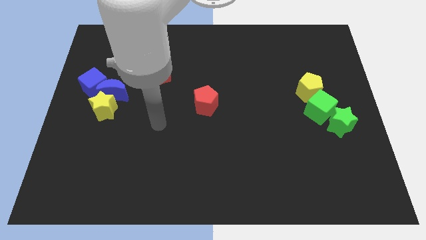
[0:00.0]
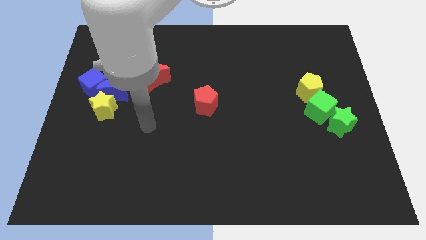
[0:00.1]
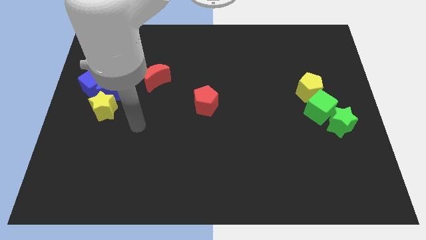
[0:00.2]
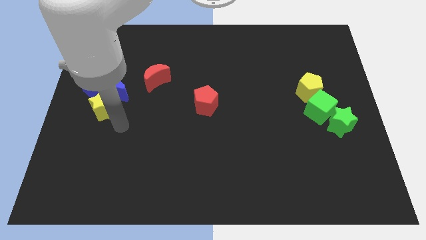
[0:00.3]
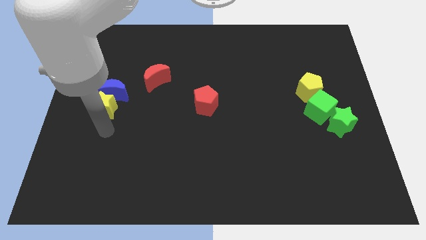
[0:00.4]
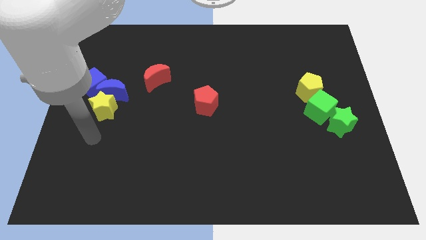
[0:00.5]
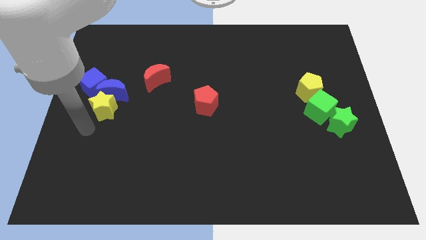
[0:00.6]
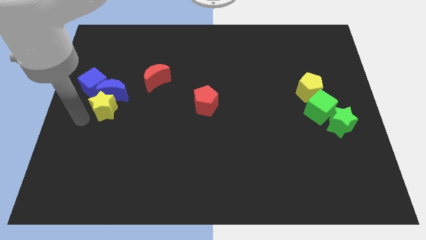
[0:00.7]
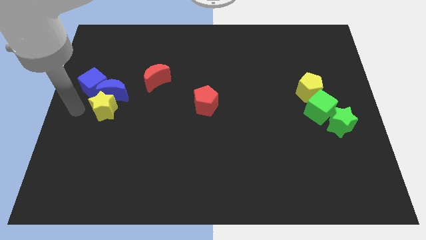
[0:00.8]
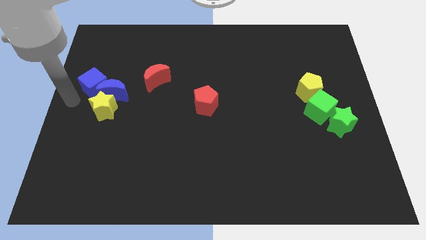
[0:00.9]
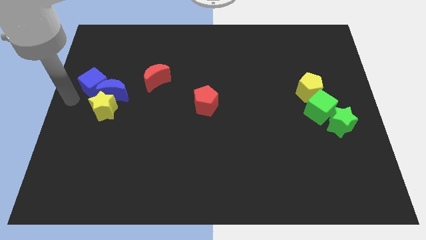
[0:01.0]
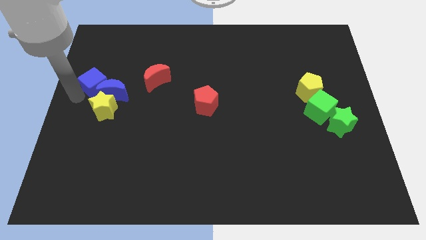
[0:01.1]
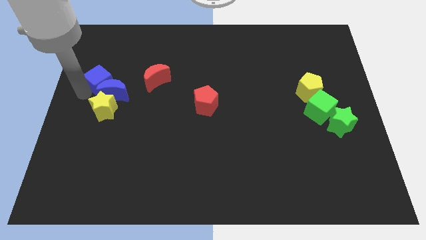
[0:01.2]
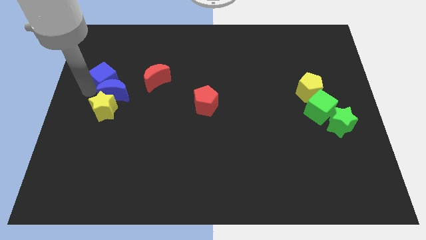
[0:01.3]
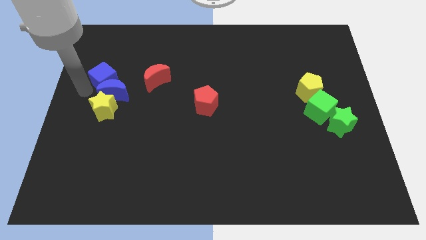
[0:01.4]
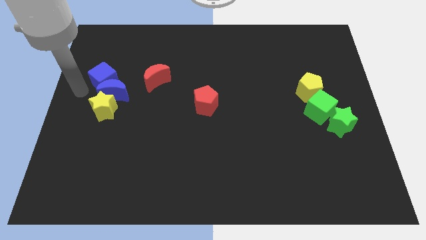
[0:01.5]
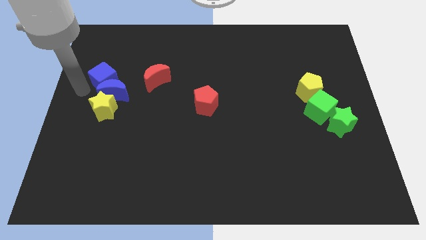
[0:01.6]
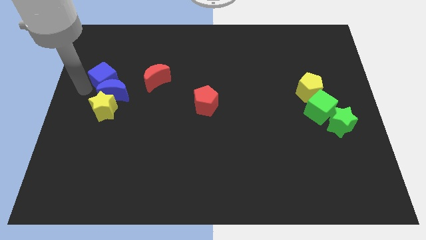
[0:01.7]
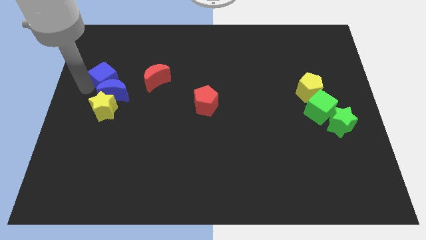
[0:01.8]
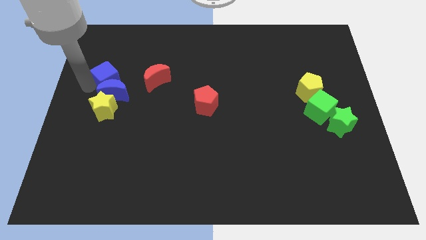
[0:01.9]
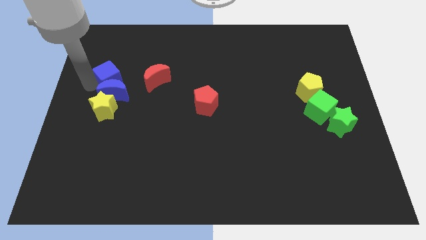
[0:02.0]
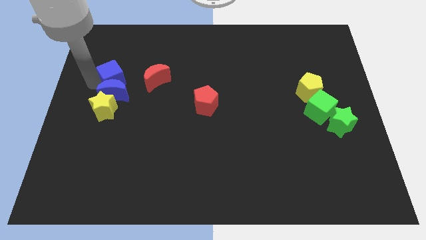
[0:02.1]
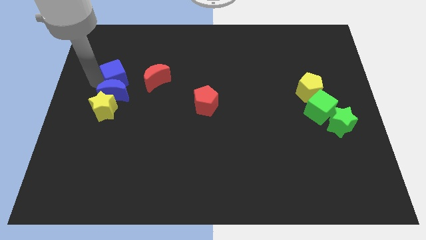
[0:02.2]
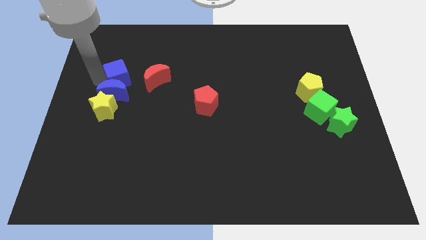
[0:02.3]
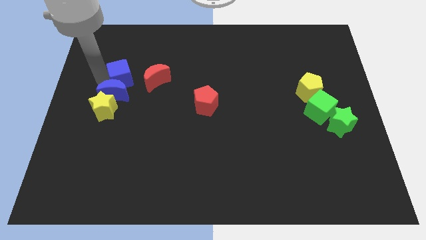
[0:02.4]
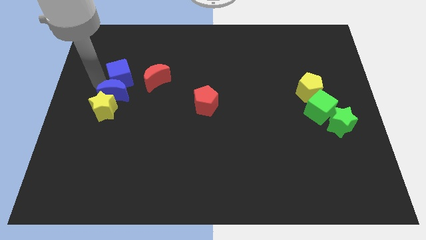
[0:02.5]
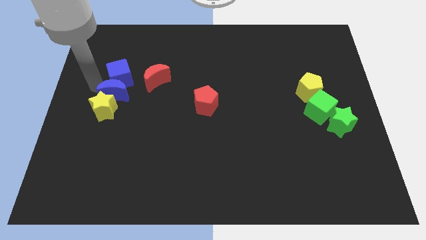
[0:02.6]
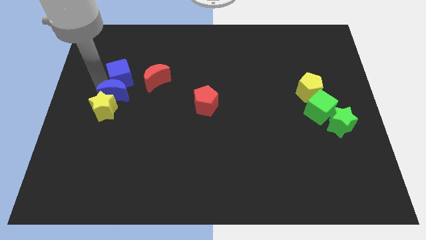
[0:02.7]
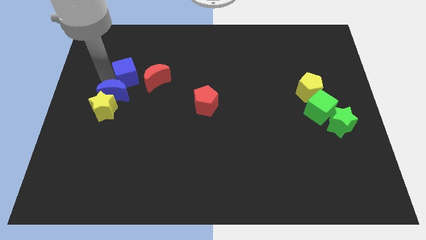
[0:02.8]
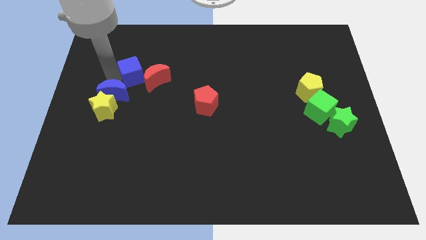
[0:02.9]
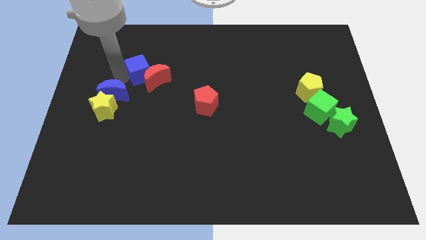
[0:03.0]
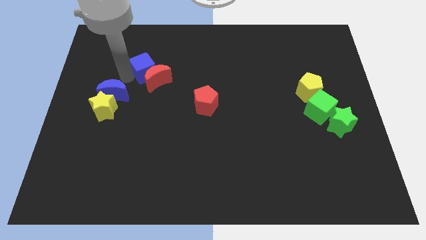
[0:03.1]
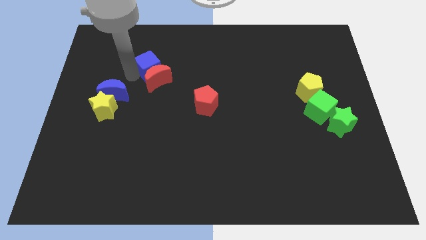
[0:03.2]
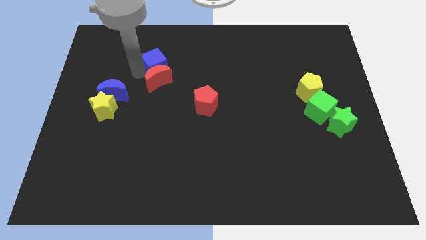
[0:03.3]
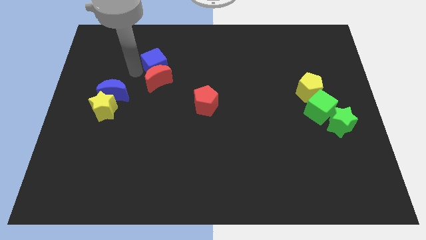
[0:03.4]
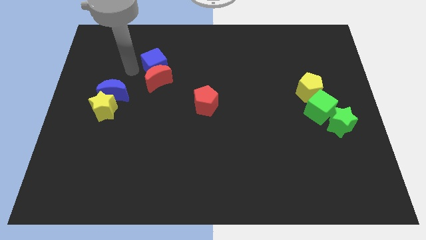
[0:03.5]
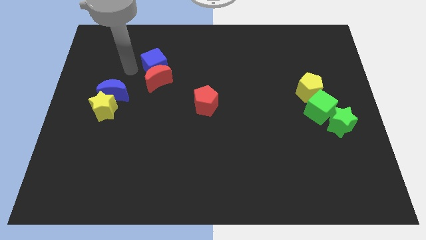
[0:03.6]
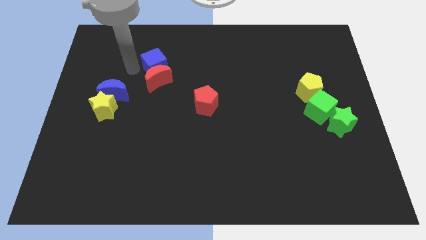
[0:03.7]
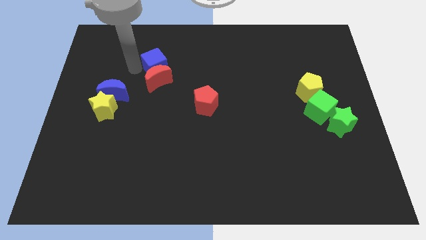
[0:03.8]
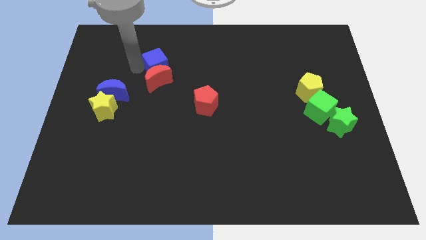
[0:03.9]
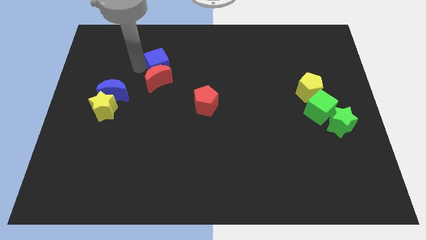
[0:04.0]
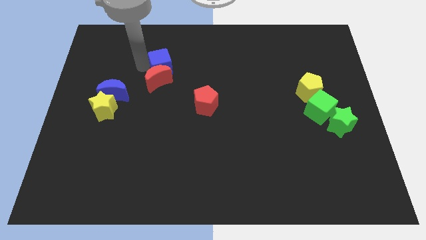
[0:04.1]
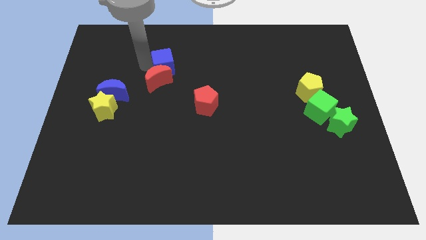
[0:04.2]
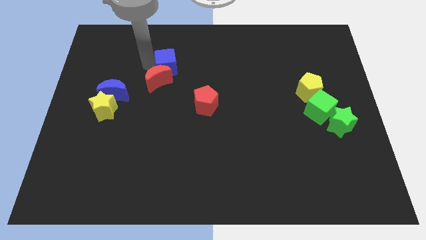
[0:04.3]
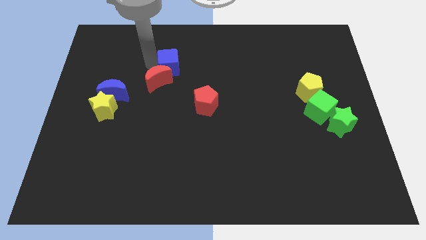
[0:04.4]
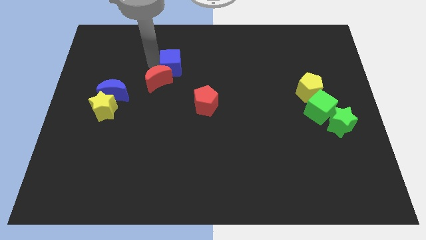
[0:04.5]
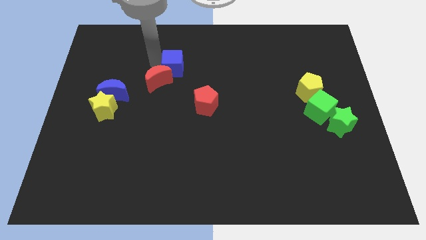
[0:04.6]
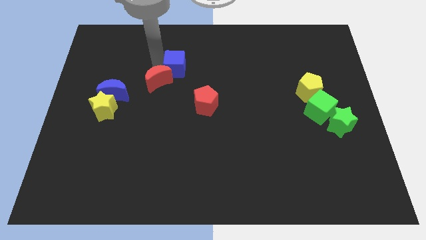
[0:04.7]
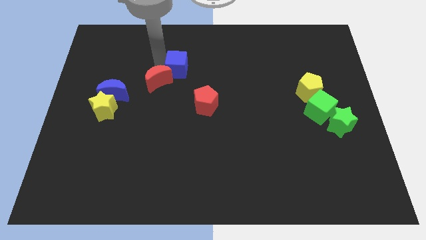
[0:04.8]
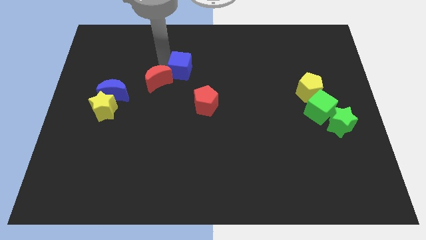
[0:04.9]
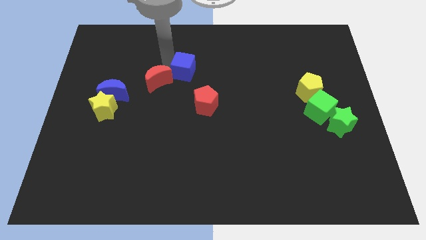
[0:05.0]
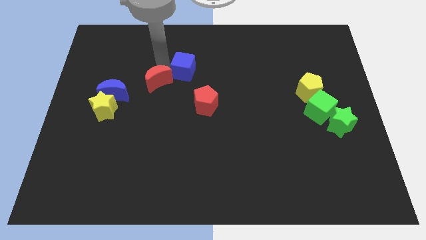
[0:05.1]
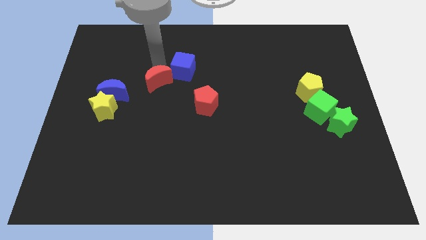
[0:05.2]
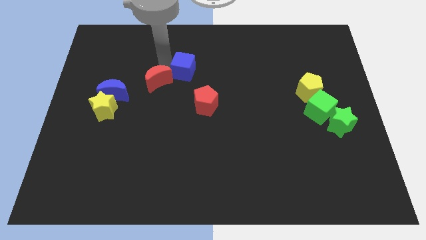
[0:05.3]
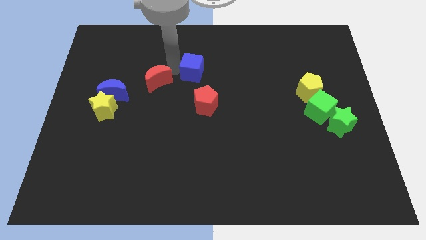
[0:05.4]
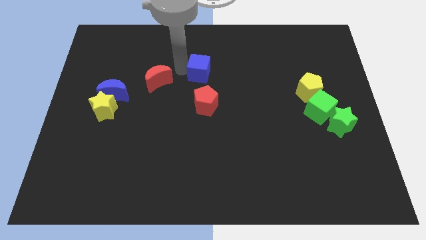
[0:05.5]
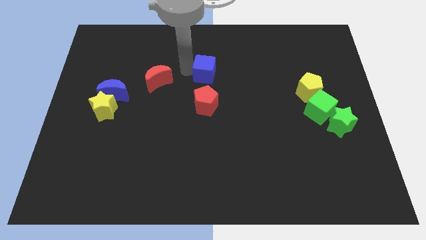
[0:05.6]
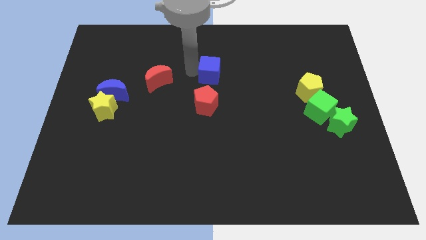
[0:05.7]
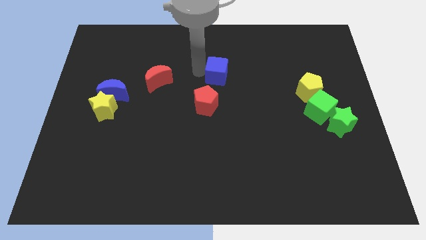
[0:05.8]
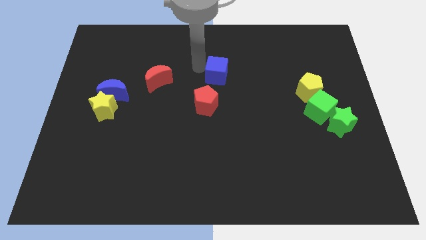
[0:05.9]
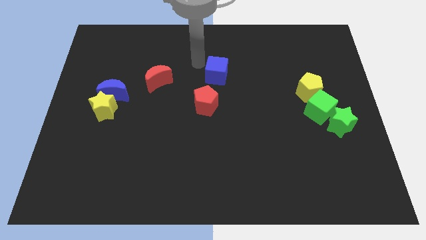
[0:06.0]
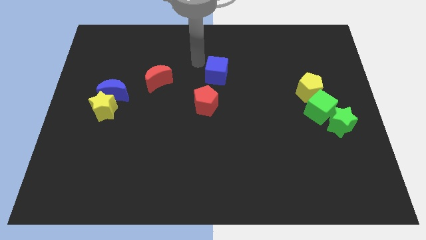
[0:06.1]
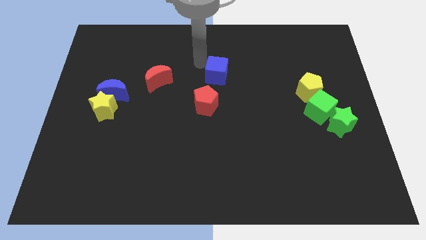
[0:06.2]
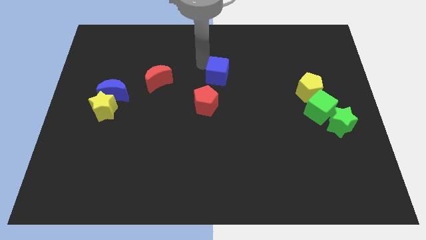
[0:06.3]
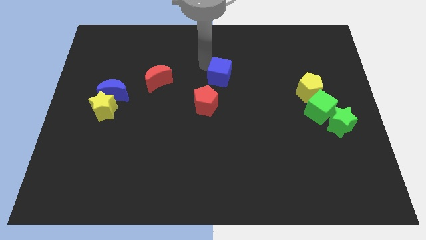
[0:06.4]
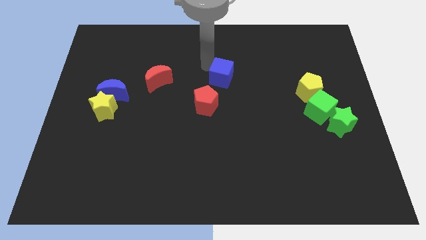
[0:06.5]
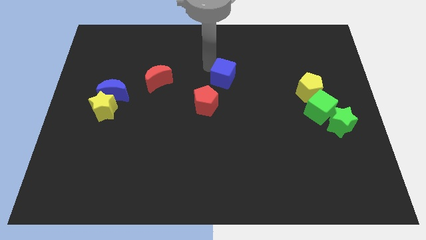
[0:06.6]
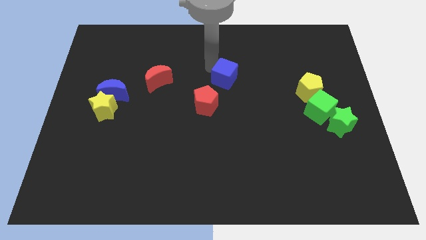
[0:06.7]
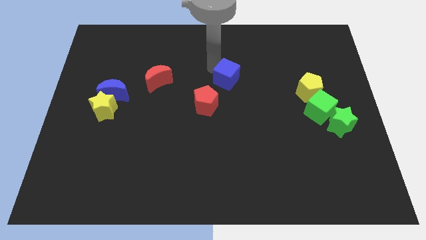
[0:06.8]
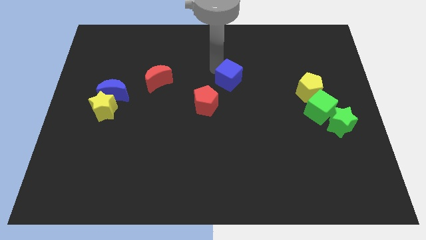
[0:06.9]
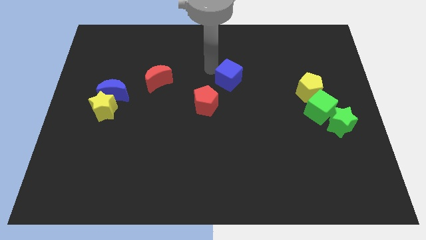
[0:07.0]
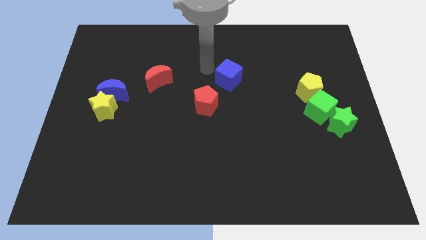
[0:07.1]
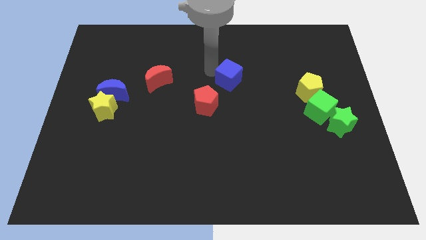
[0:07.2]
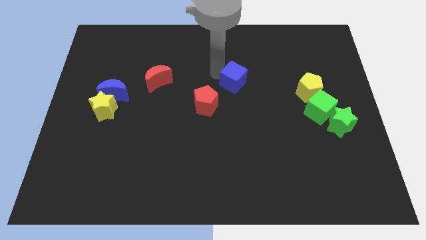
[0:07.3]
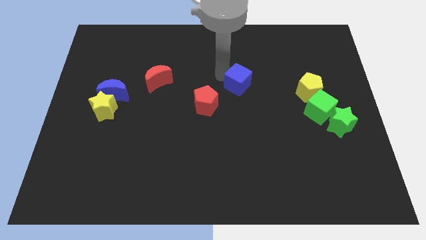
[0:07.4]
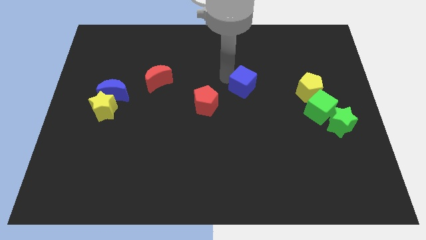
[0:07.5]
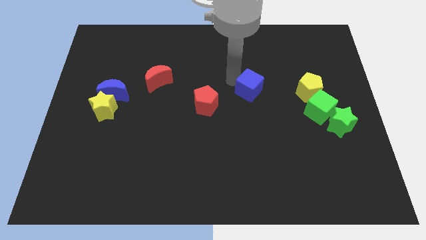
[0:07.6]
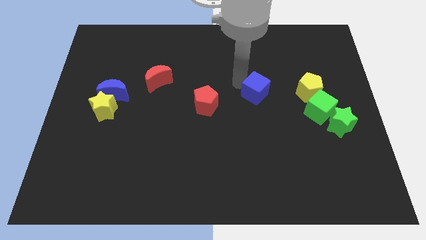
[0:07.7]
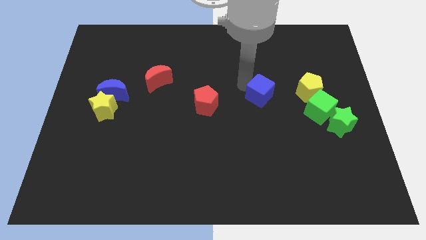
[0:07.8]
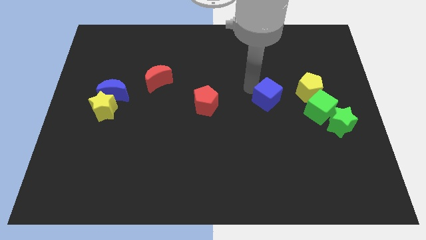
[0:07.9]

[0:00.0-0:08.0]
push the blue cube left of the green cube
